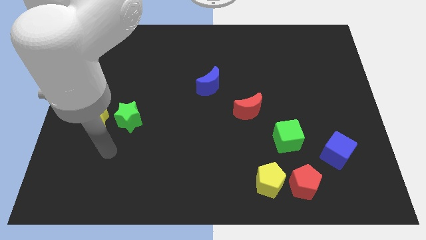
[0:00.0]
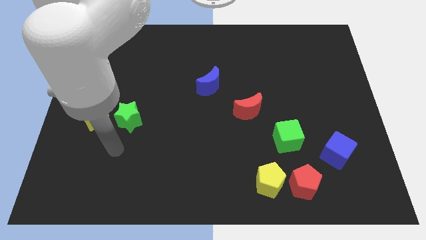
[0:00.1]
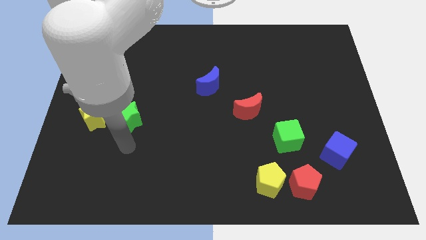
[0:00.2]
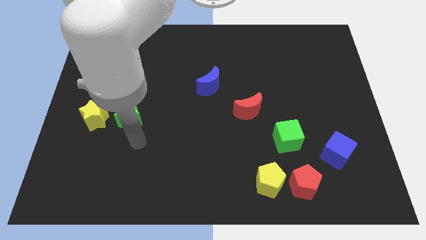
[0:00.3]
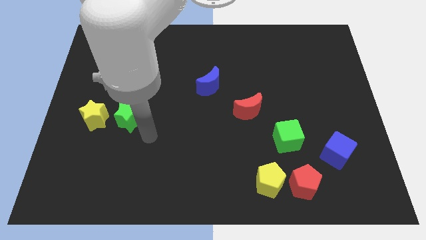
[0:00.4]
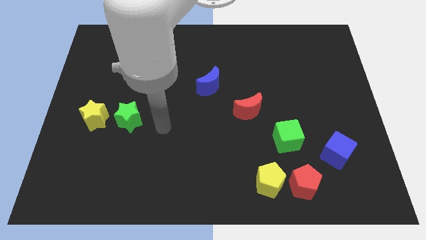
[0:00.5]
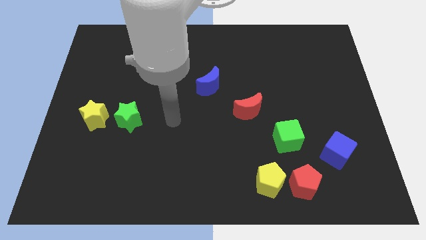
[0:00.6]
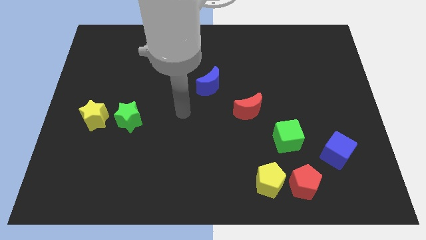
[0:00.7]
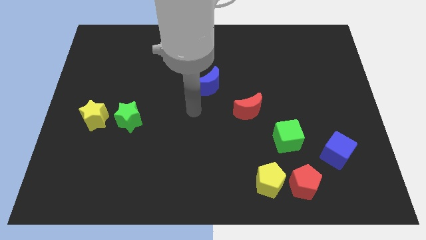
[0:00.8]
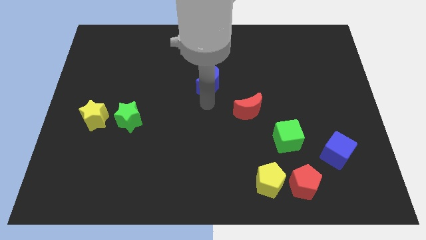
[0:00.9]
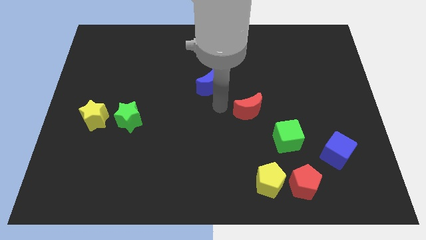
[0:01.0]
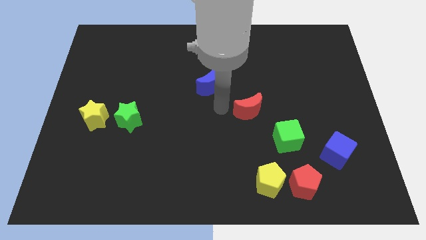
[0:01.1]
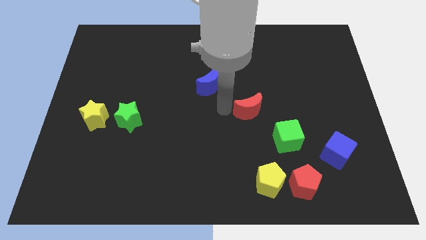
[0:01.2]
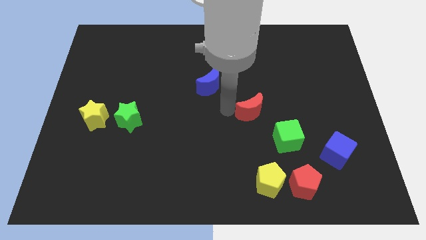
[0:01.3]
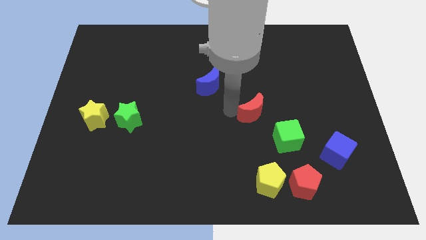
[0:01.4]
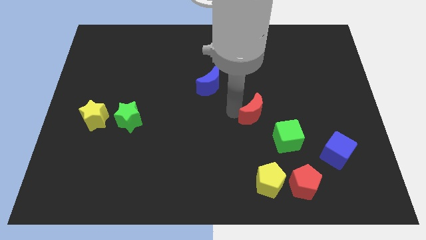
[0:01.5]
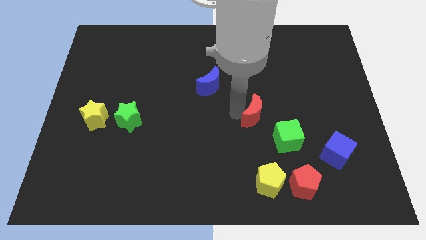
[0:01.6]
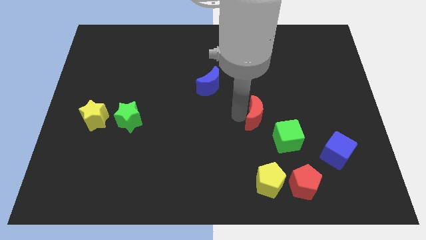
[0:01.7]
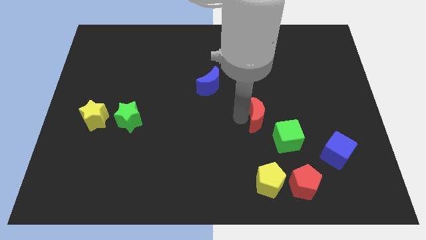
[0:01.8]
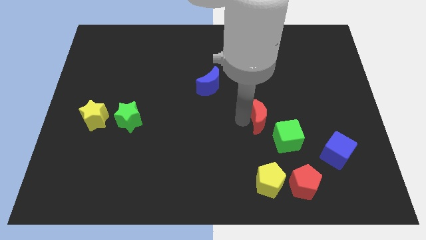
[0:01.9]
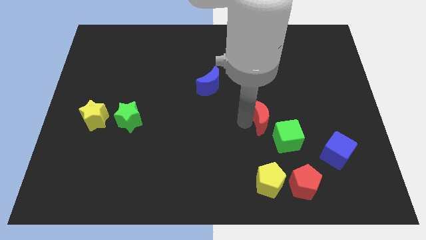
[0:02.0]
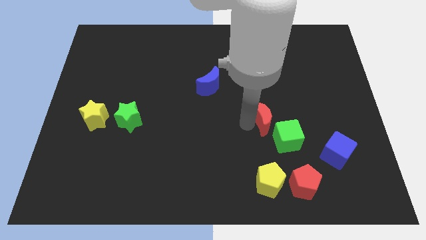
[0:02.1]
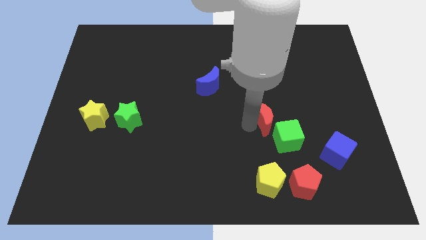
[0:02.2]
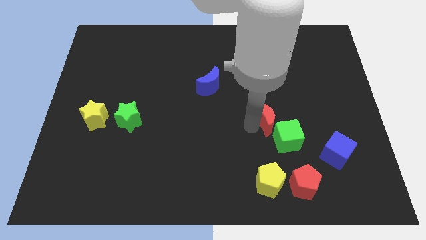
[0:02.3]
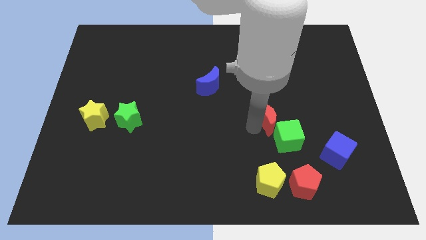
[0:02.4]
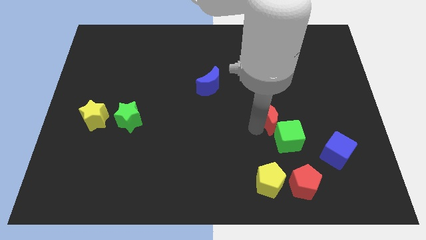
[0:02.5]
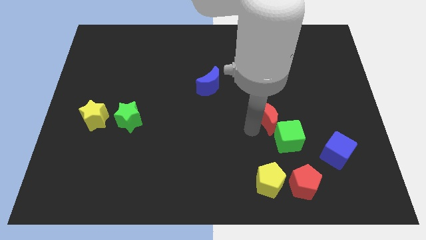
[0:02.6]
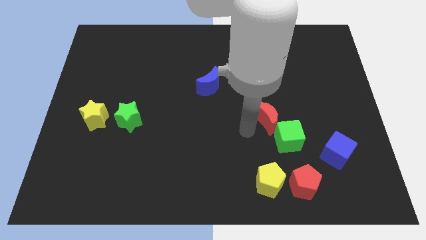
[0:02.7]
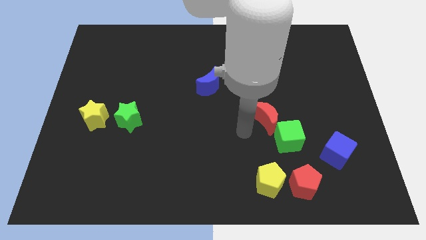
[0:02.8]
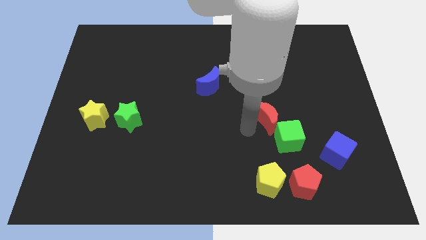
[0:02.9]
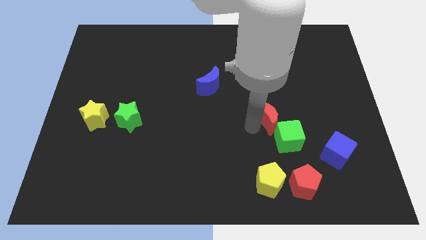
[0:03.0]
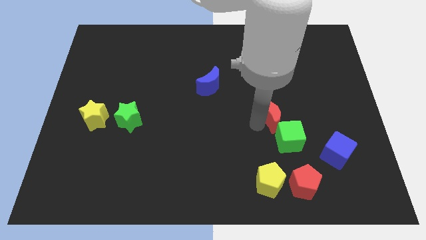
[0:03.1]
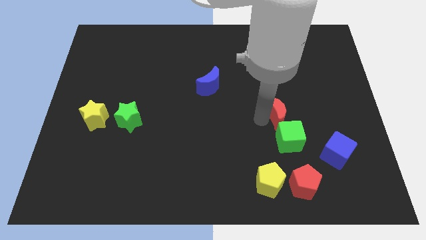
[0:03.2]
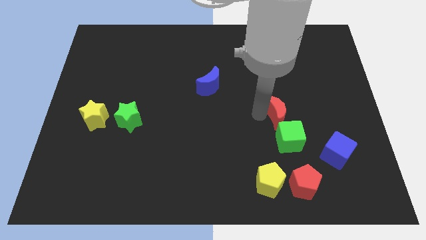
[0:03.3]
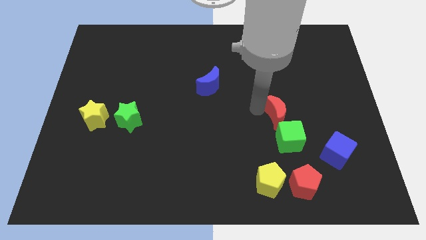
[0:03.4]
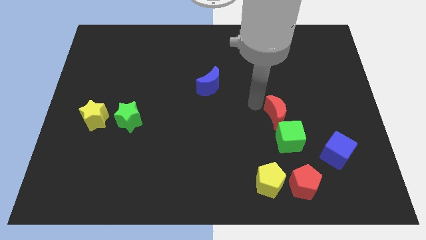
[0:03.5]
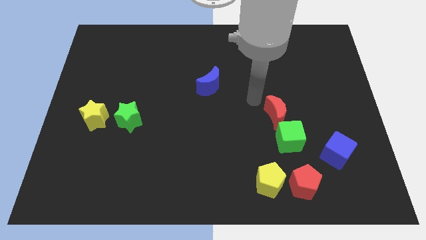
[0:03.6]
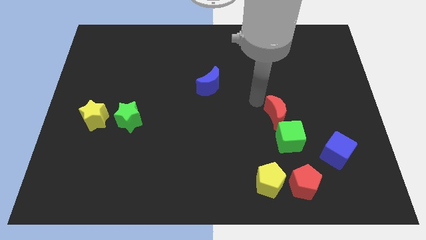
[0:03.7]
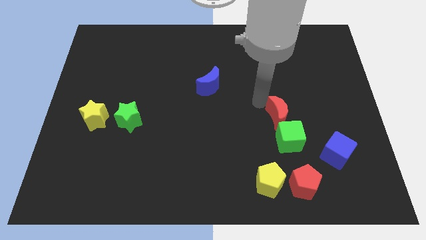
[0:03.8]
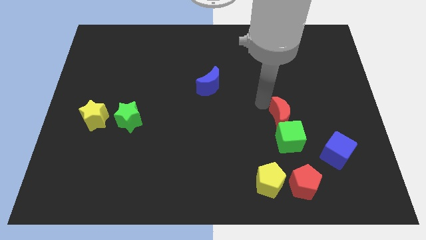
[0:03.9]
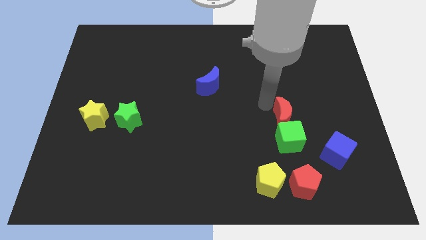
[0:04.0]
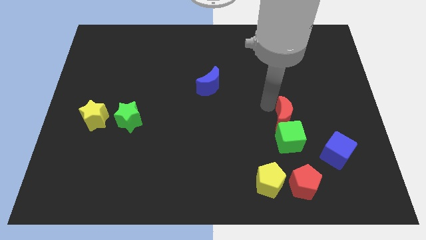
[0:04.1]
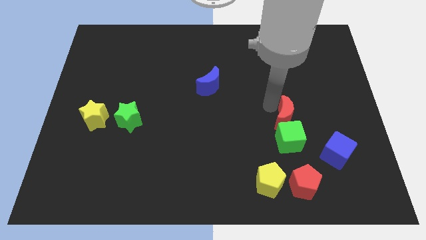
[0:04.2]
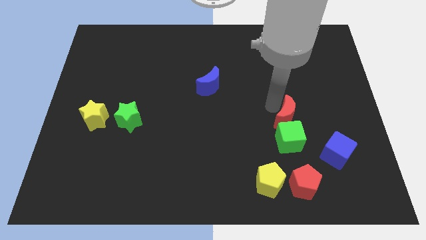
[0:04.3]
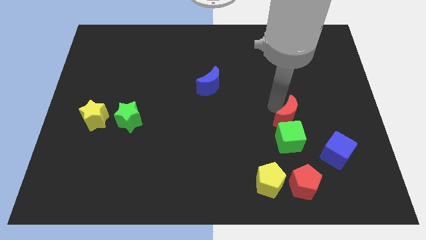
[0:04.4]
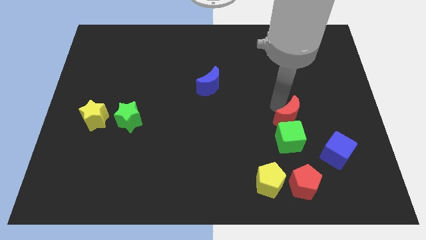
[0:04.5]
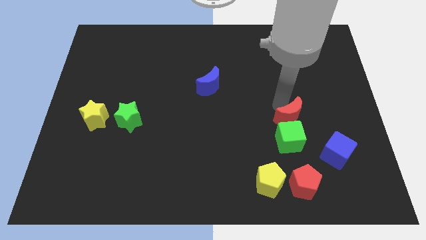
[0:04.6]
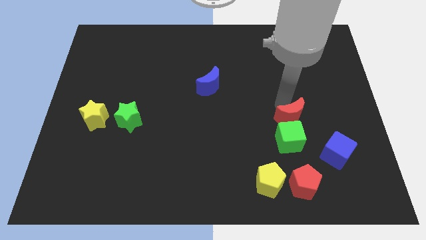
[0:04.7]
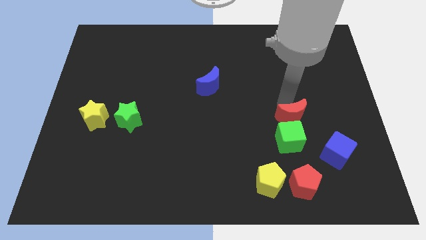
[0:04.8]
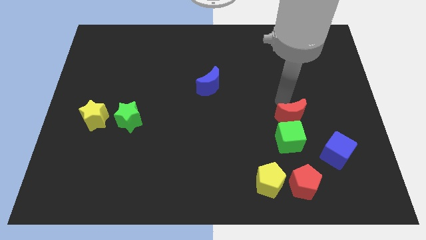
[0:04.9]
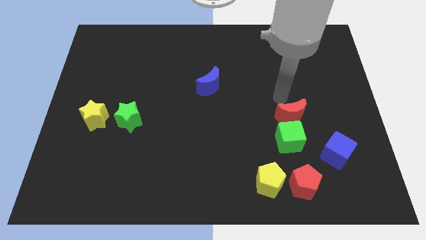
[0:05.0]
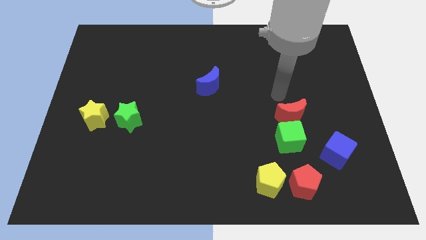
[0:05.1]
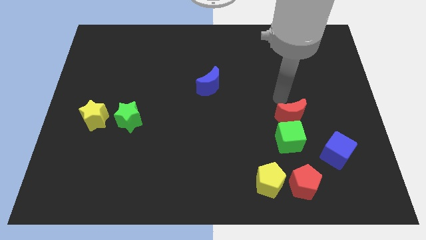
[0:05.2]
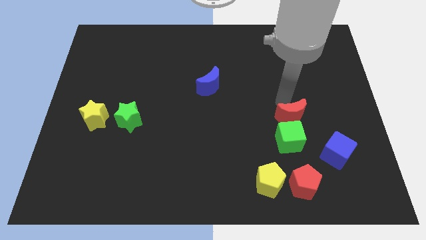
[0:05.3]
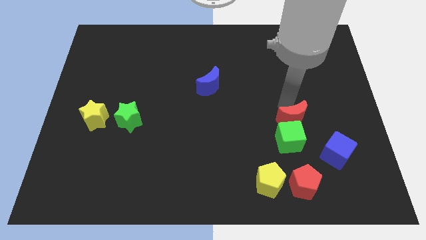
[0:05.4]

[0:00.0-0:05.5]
push the red moon a little bit downwards and then to the right

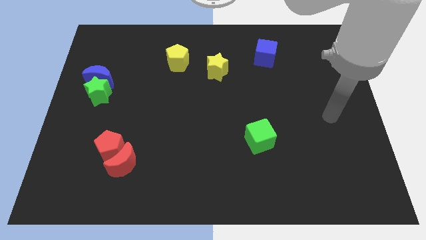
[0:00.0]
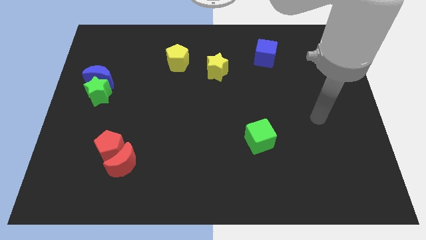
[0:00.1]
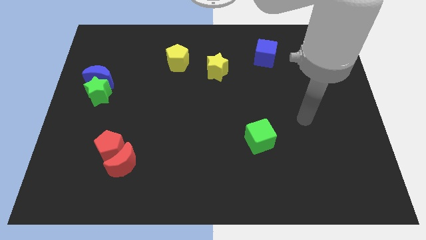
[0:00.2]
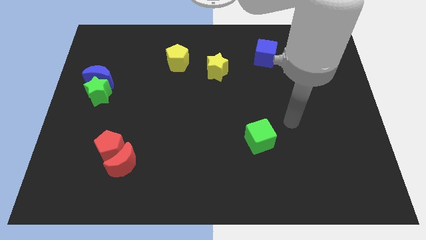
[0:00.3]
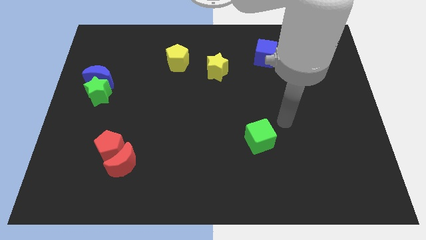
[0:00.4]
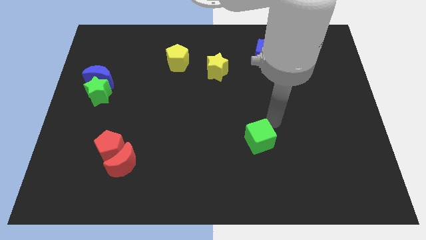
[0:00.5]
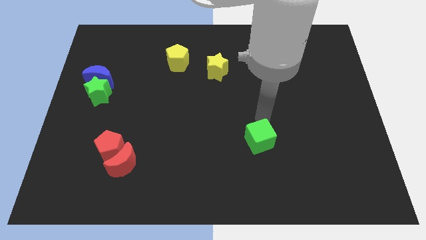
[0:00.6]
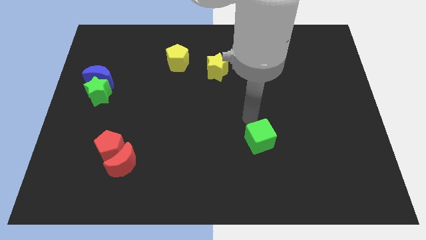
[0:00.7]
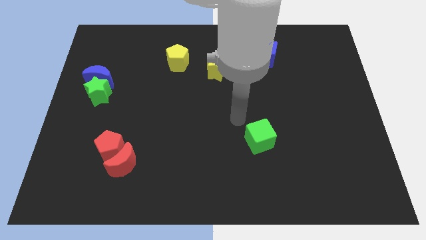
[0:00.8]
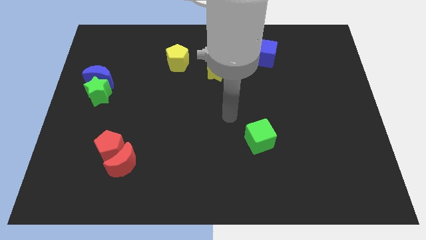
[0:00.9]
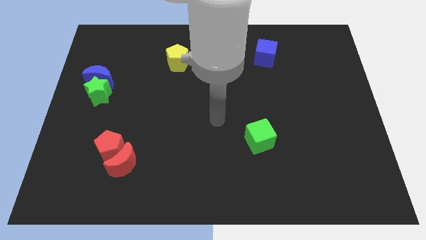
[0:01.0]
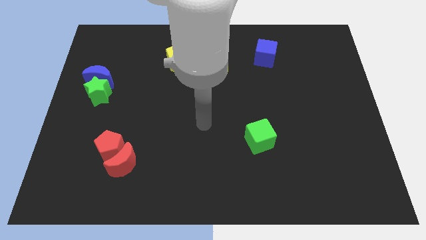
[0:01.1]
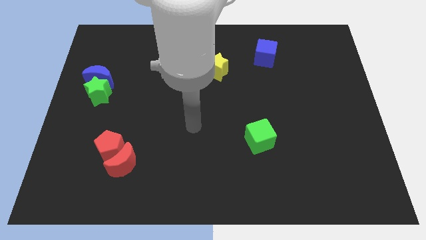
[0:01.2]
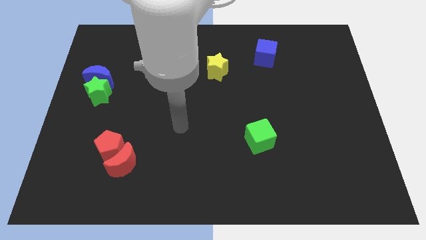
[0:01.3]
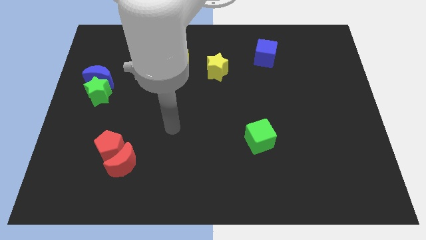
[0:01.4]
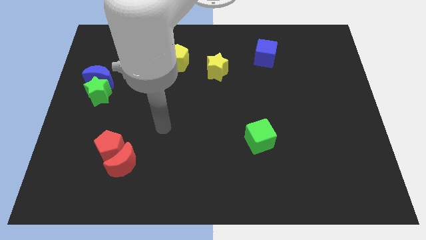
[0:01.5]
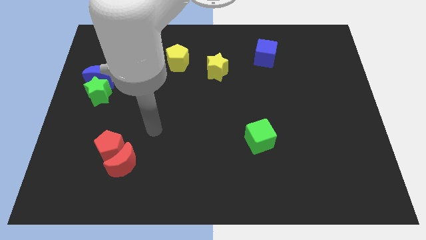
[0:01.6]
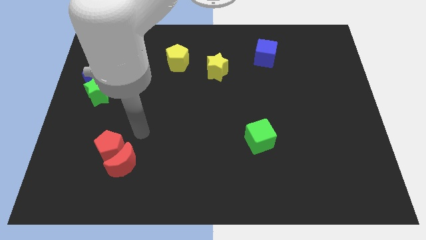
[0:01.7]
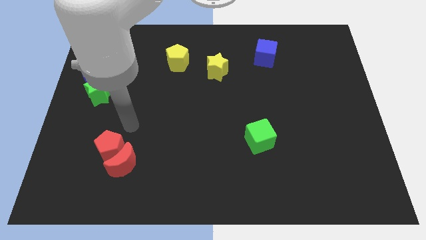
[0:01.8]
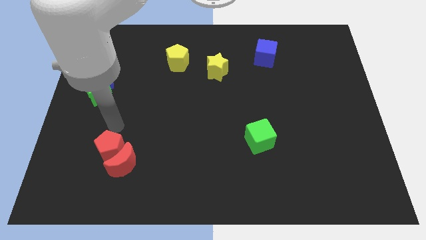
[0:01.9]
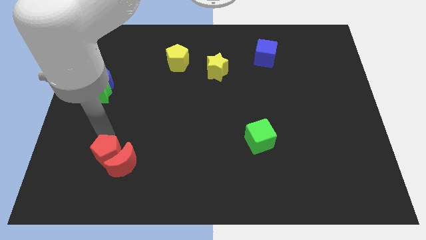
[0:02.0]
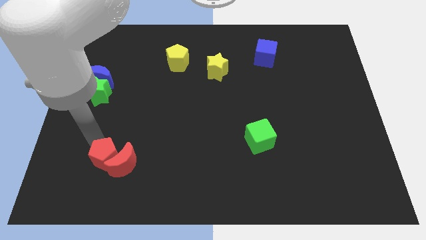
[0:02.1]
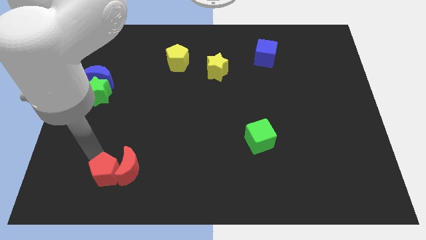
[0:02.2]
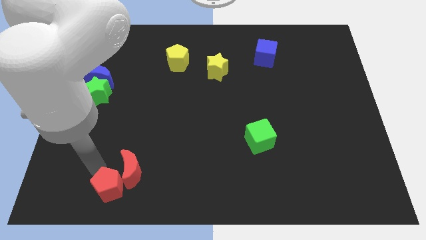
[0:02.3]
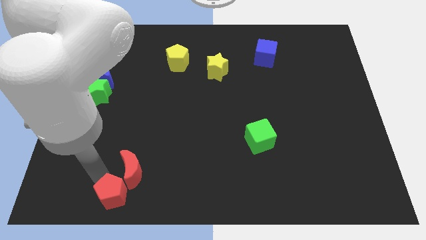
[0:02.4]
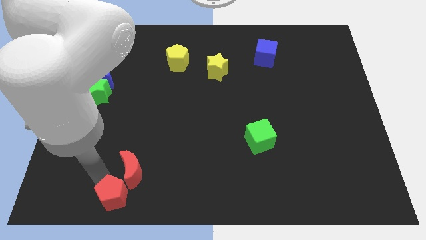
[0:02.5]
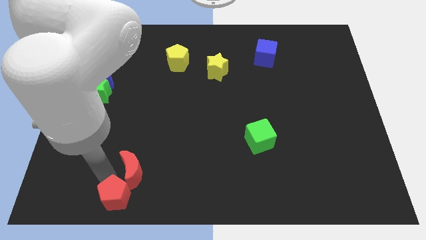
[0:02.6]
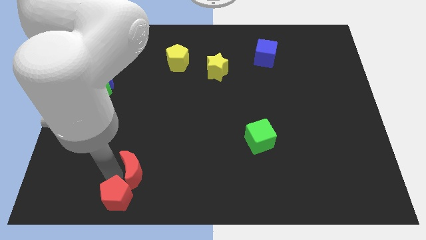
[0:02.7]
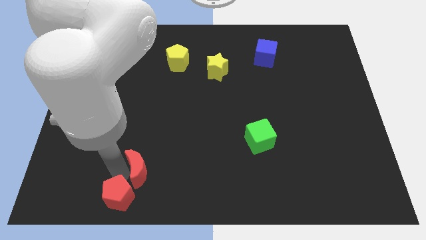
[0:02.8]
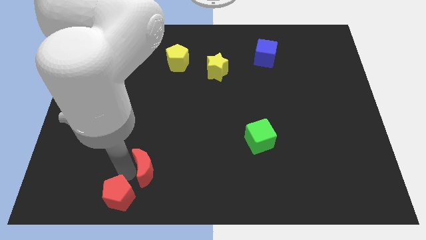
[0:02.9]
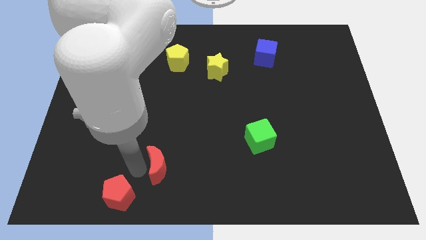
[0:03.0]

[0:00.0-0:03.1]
slide the red moon to the right a little
